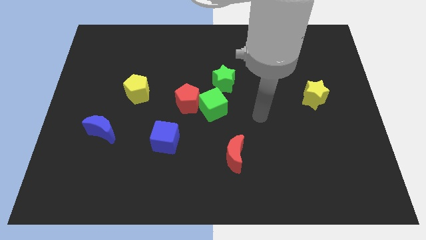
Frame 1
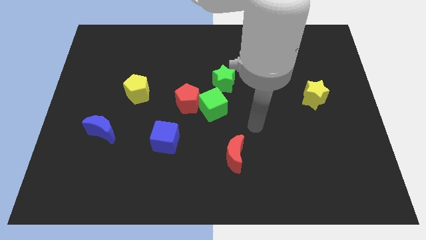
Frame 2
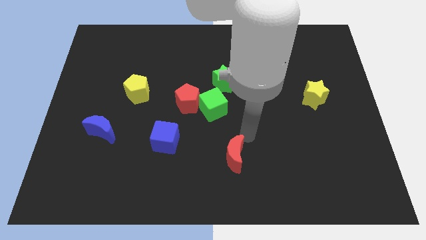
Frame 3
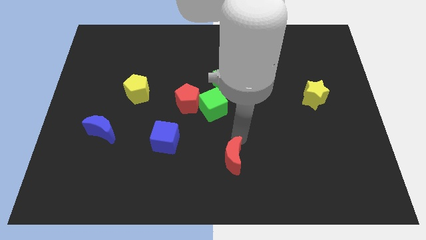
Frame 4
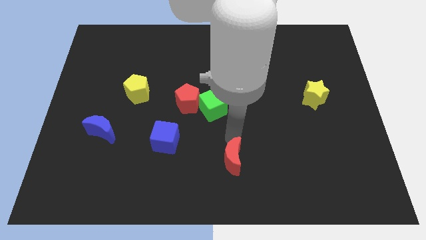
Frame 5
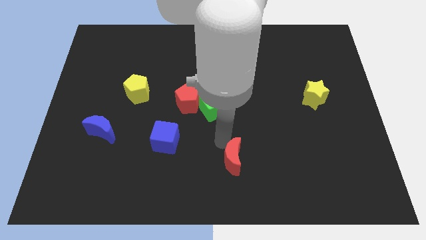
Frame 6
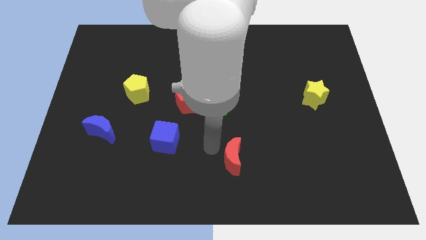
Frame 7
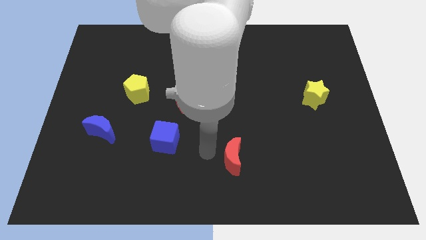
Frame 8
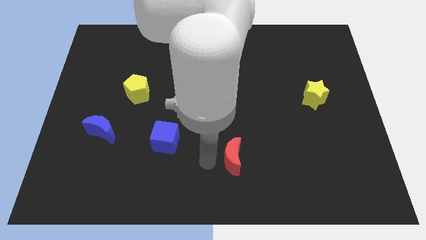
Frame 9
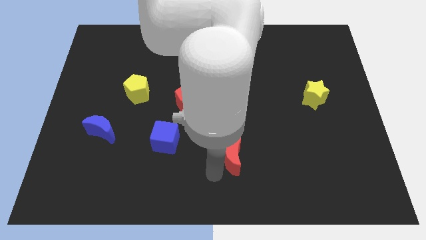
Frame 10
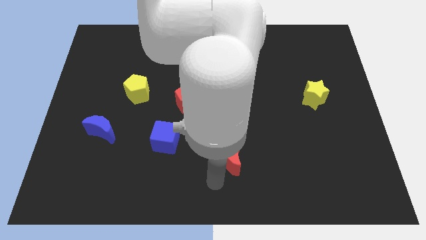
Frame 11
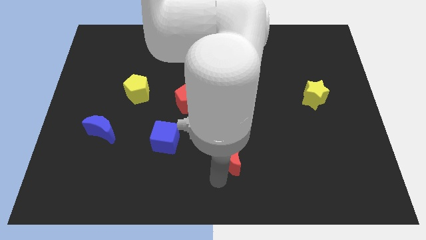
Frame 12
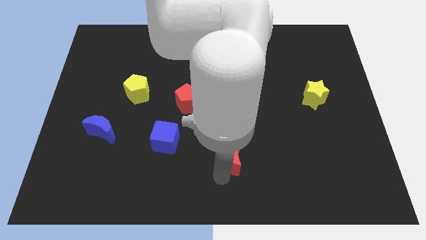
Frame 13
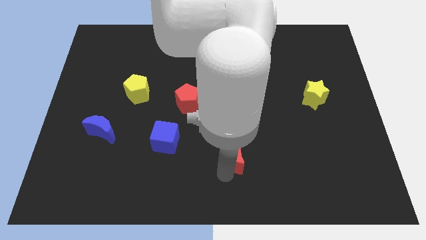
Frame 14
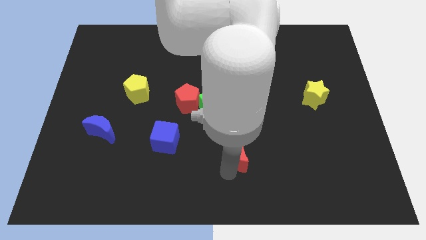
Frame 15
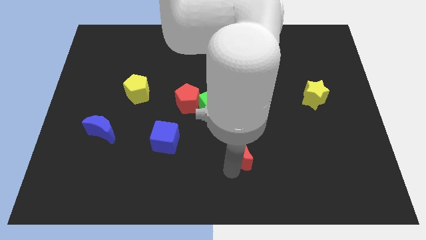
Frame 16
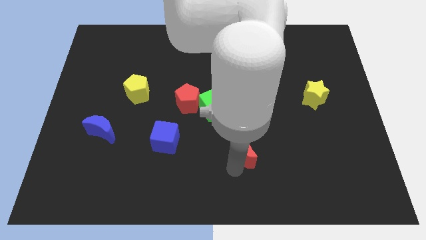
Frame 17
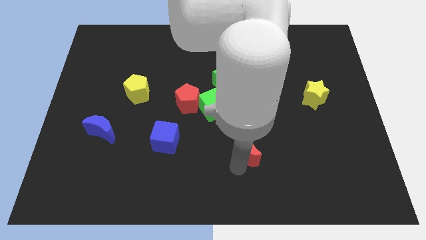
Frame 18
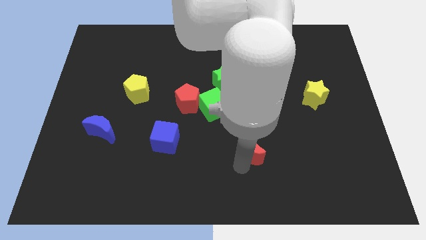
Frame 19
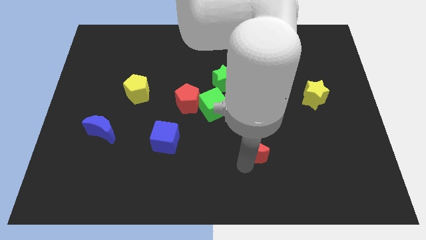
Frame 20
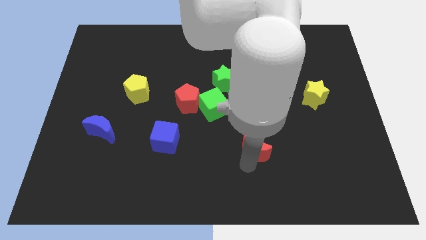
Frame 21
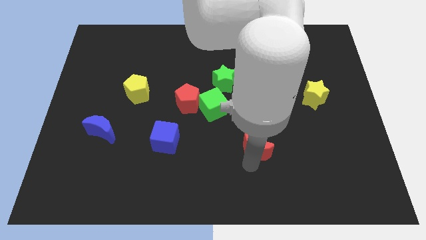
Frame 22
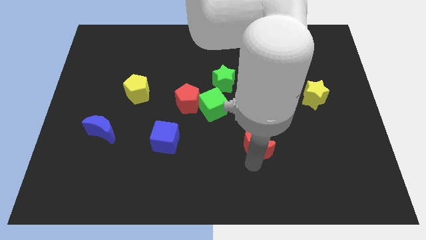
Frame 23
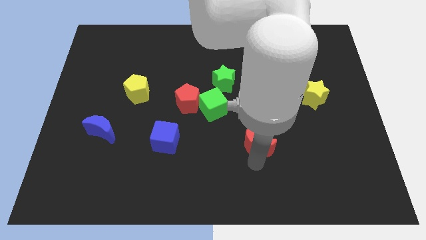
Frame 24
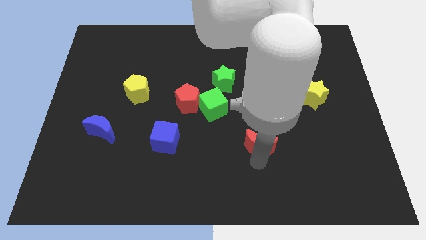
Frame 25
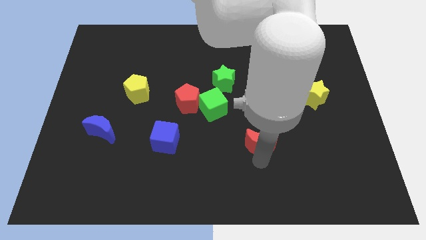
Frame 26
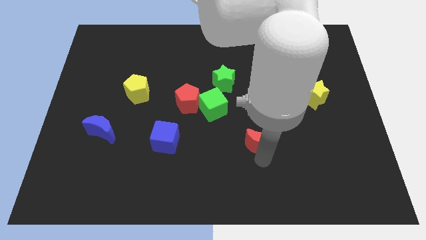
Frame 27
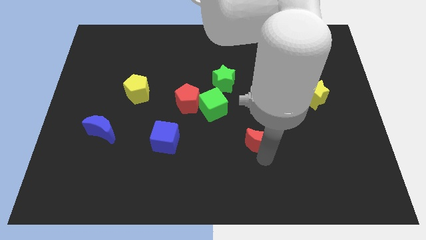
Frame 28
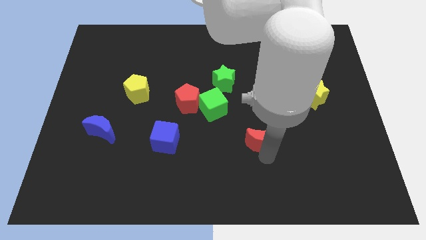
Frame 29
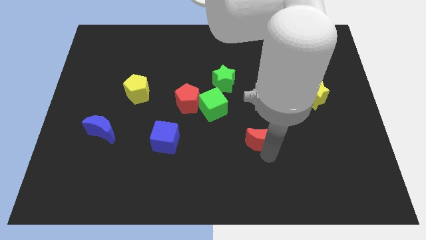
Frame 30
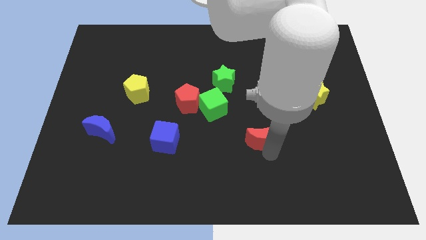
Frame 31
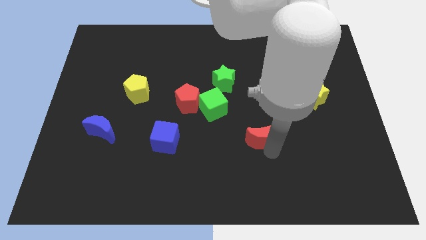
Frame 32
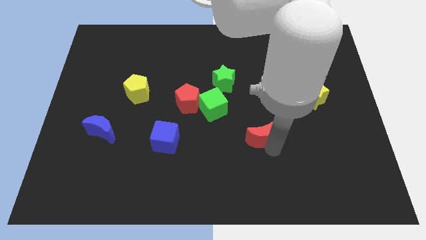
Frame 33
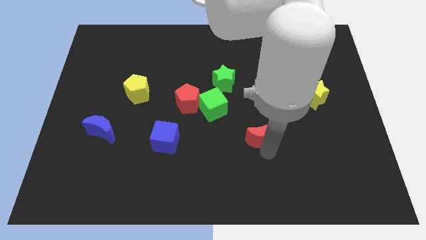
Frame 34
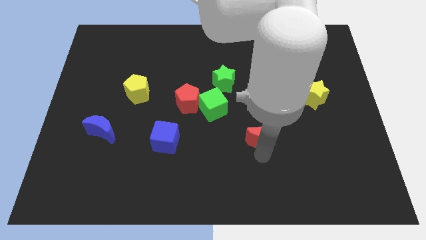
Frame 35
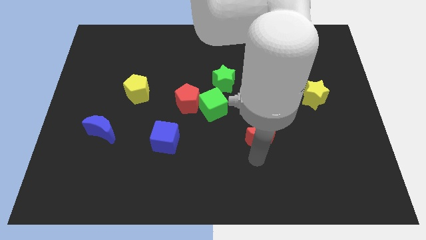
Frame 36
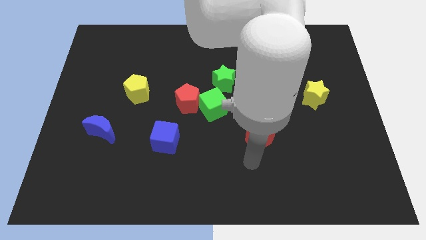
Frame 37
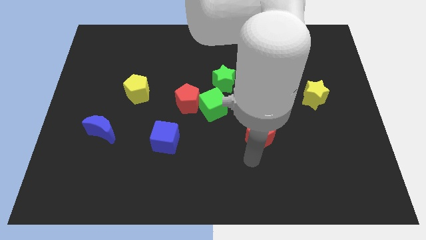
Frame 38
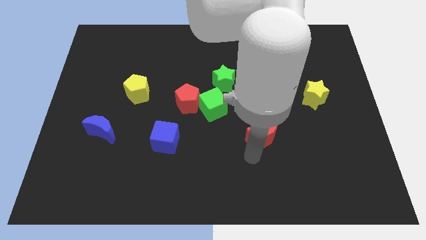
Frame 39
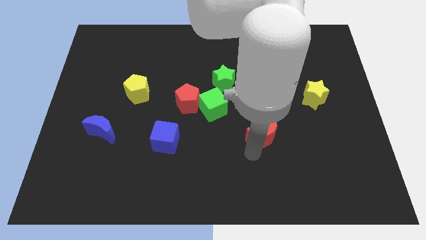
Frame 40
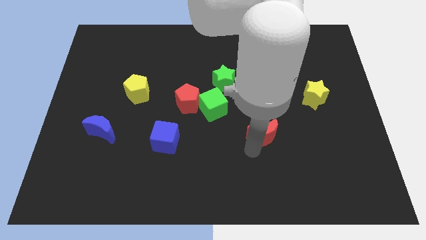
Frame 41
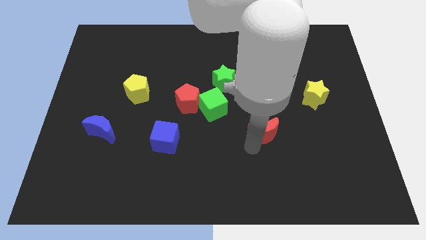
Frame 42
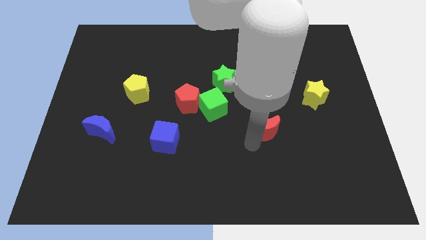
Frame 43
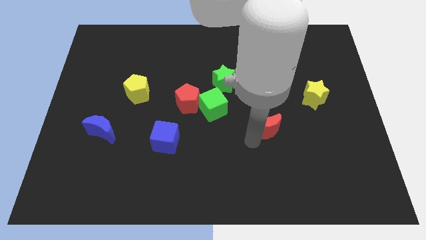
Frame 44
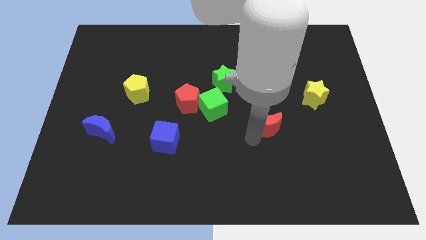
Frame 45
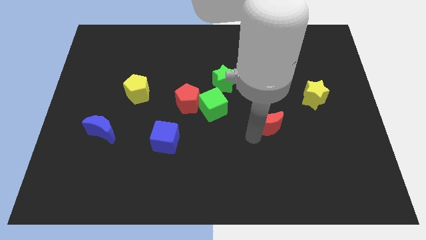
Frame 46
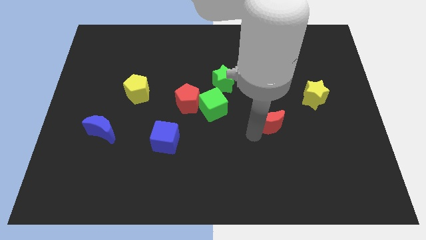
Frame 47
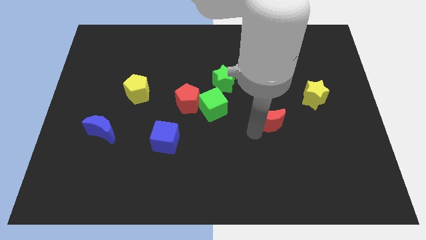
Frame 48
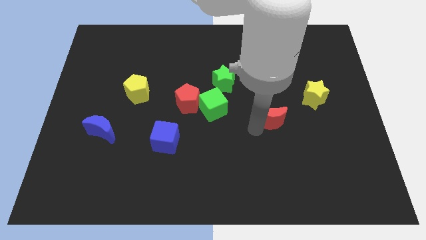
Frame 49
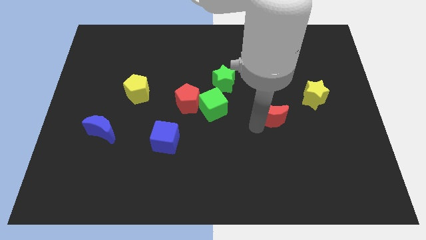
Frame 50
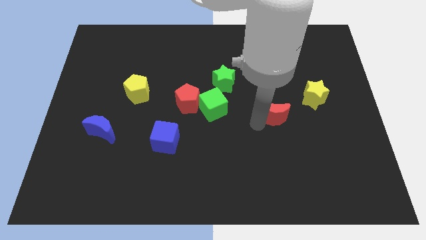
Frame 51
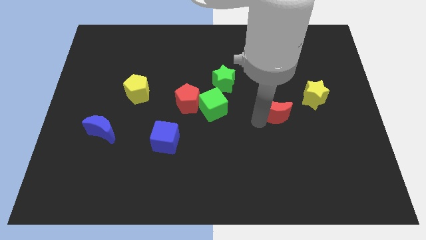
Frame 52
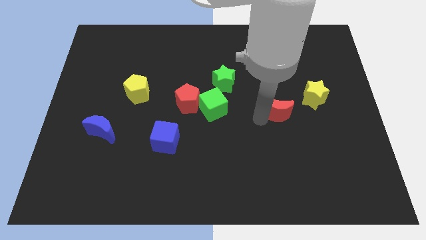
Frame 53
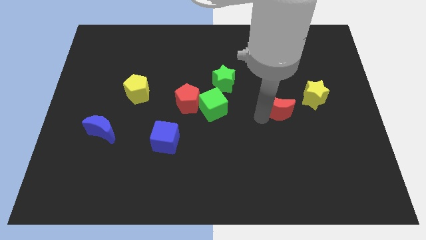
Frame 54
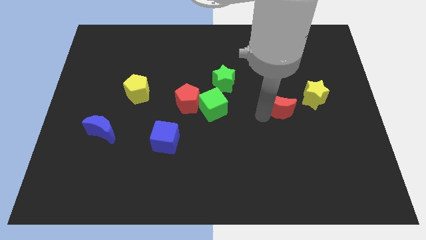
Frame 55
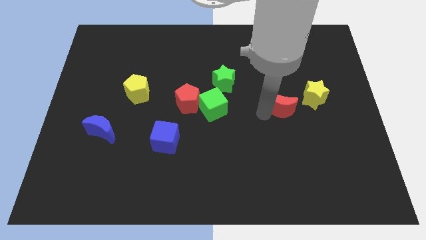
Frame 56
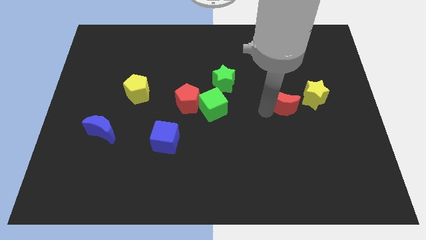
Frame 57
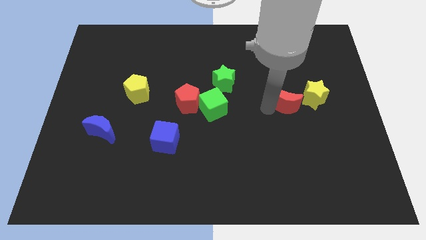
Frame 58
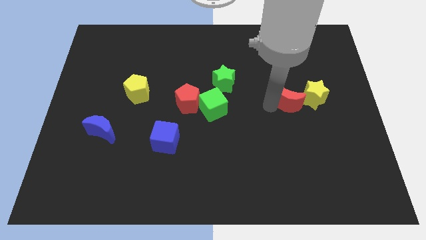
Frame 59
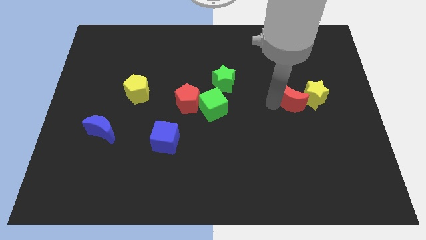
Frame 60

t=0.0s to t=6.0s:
slide the red moon up and then right

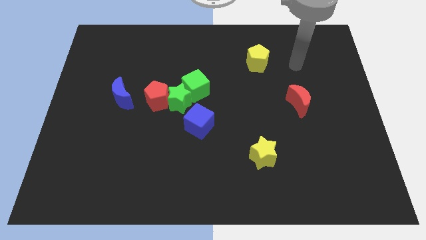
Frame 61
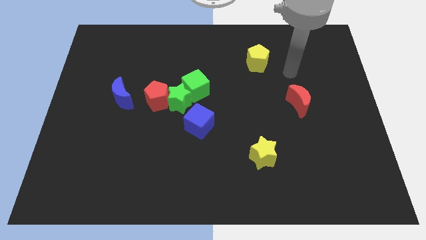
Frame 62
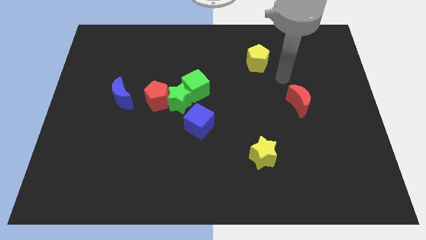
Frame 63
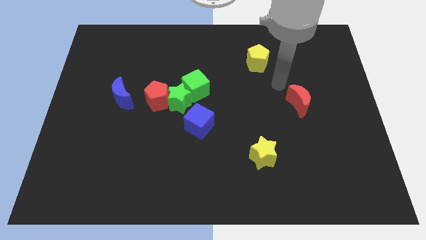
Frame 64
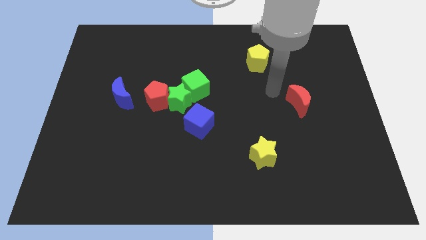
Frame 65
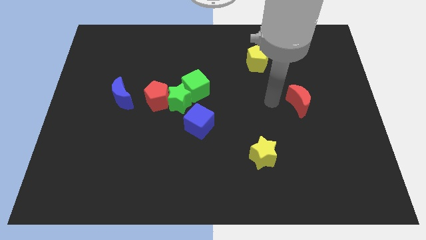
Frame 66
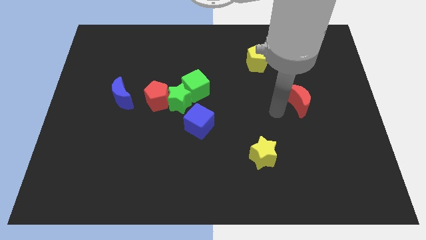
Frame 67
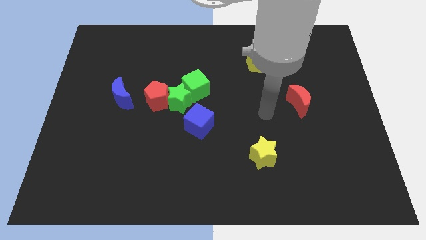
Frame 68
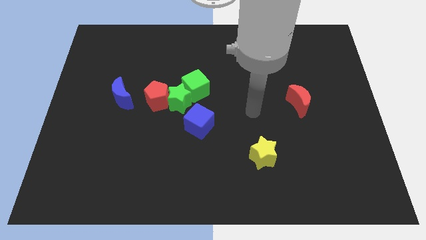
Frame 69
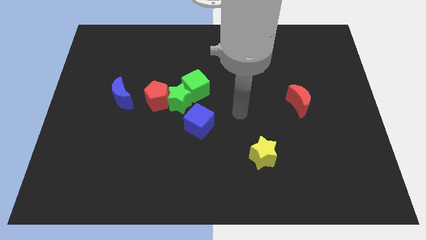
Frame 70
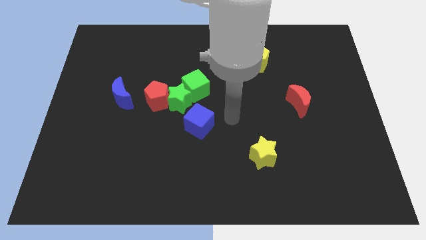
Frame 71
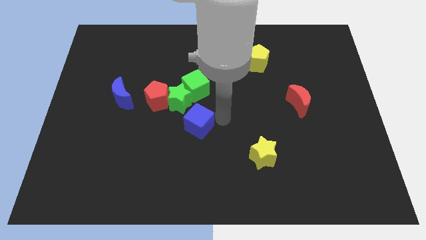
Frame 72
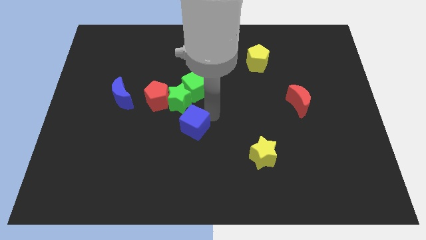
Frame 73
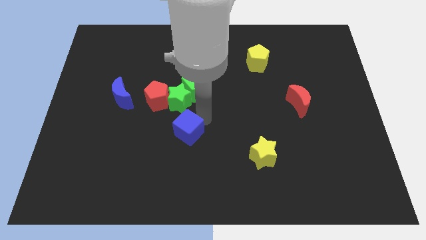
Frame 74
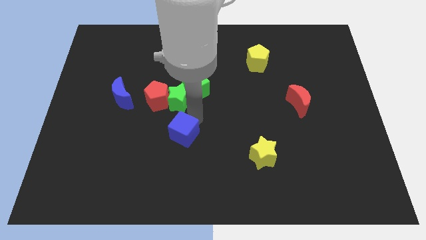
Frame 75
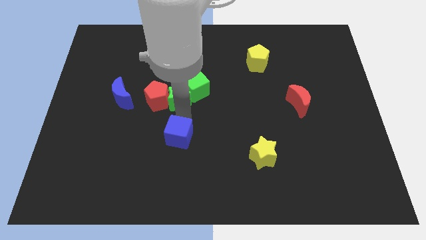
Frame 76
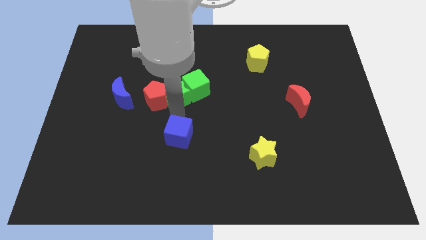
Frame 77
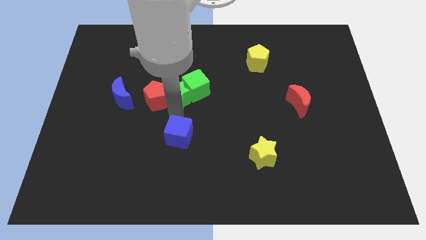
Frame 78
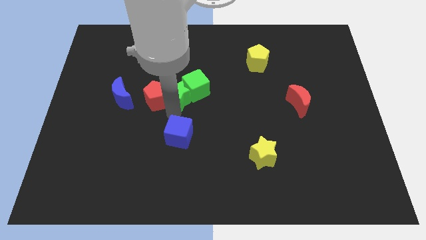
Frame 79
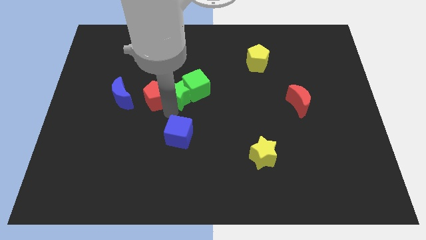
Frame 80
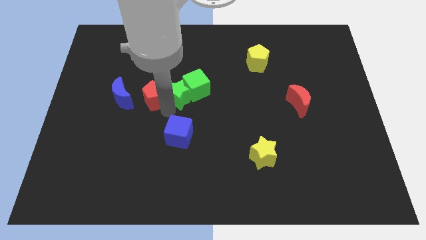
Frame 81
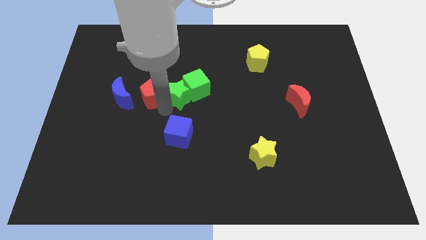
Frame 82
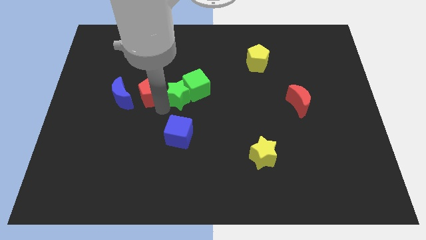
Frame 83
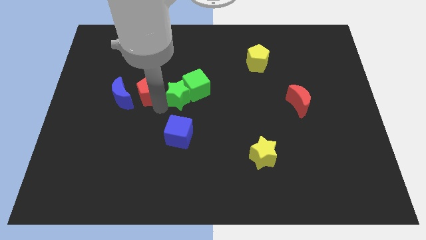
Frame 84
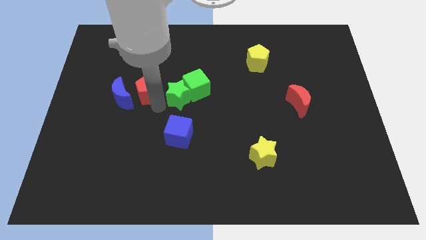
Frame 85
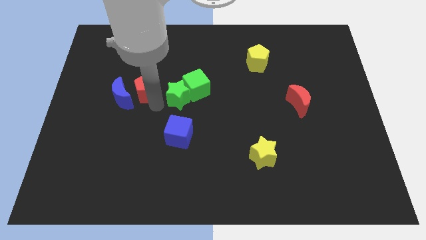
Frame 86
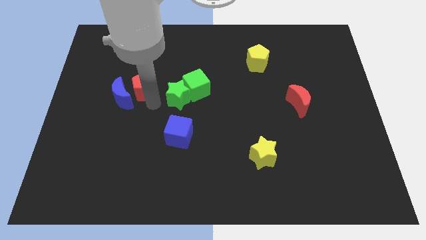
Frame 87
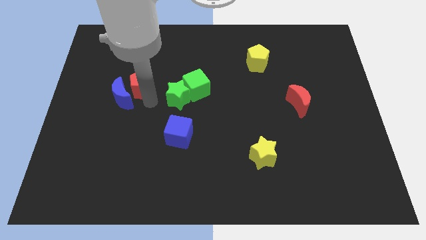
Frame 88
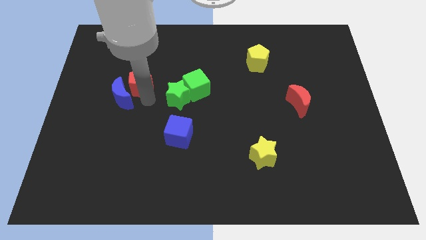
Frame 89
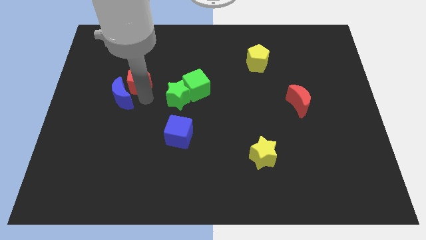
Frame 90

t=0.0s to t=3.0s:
slightly slide the red pentagon upwards and to the left diagonally
